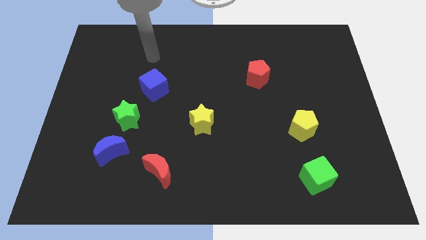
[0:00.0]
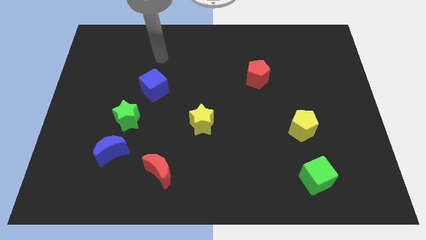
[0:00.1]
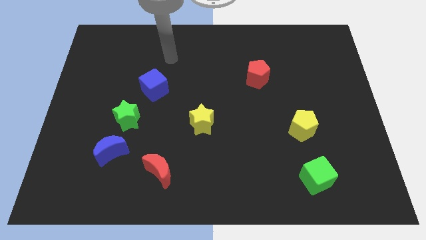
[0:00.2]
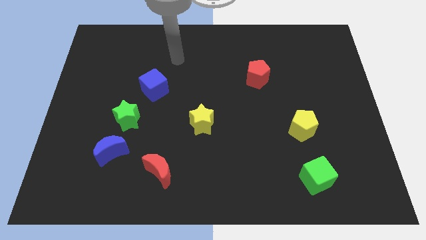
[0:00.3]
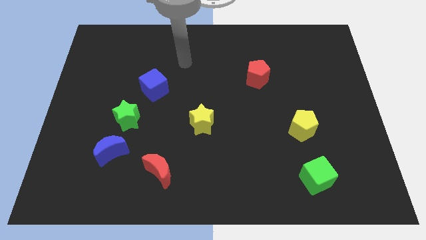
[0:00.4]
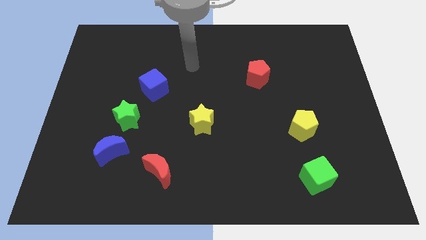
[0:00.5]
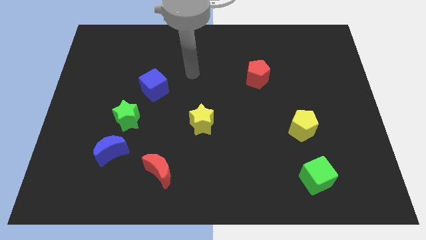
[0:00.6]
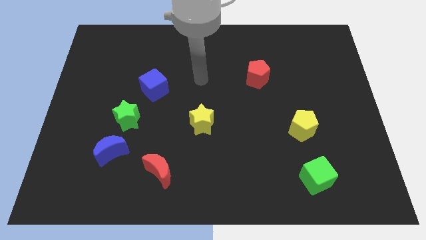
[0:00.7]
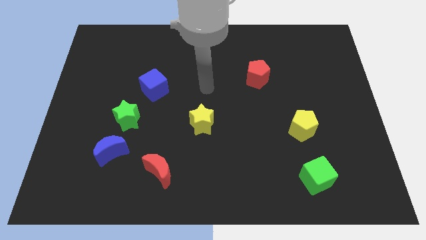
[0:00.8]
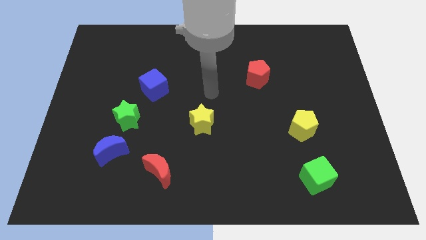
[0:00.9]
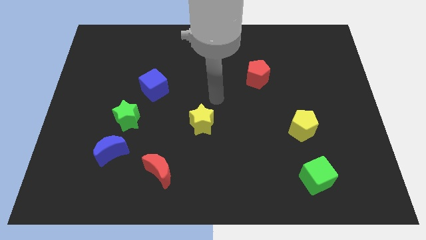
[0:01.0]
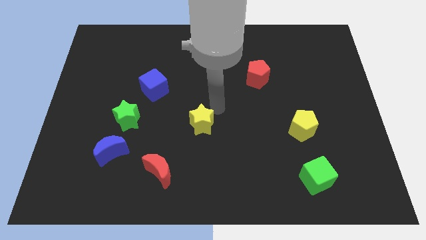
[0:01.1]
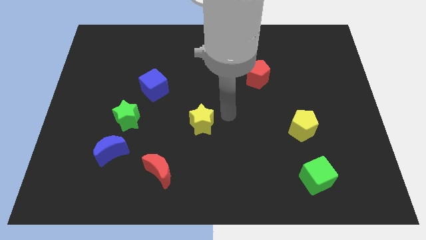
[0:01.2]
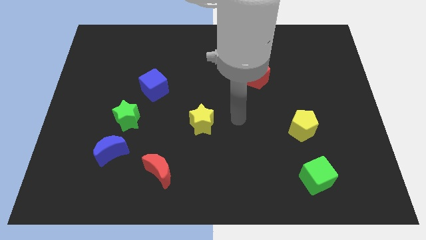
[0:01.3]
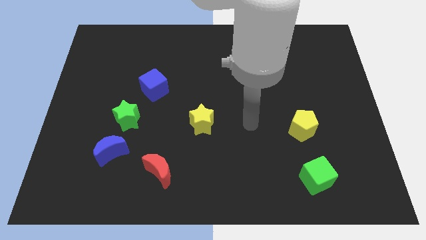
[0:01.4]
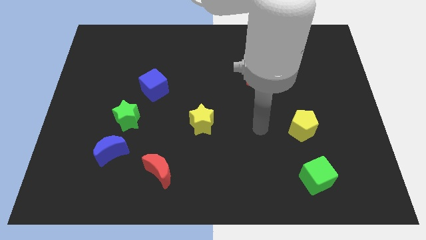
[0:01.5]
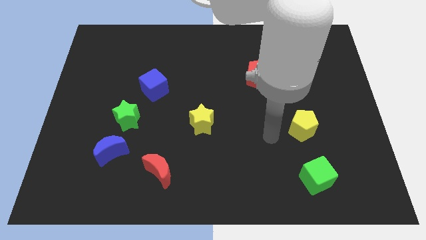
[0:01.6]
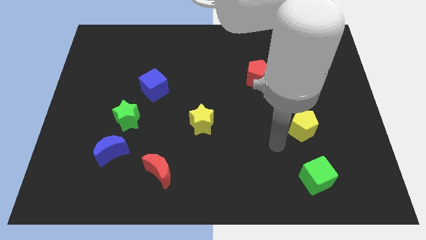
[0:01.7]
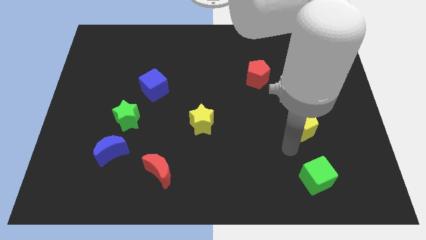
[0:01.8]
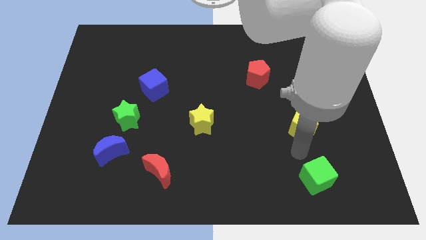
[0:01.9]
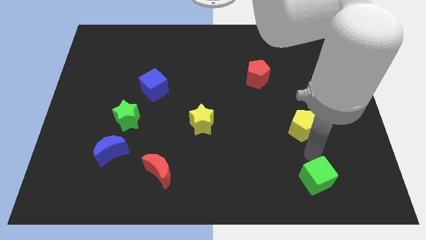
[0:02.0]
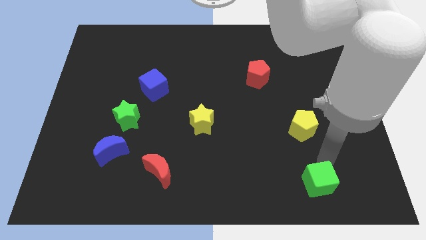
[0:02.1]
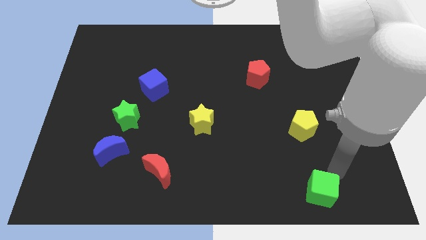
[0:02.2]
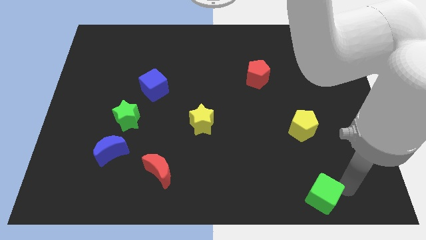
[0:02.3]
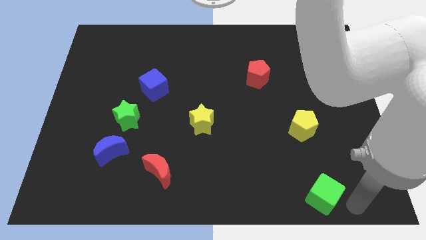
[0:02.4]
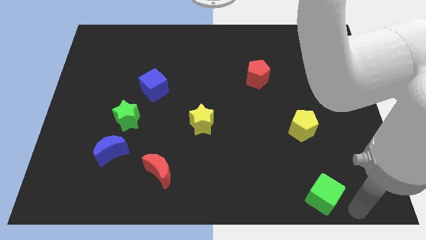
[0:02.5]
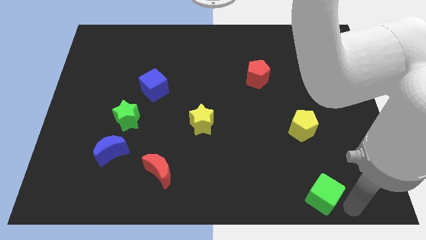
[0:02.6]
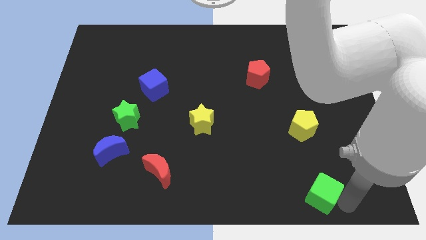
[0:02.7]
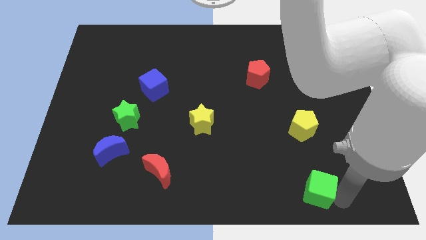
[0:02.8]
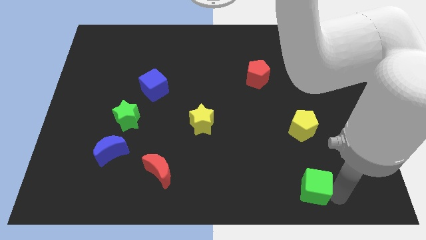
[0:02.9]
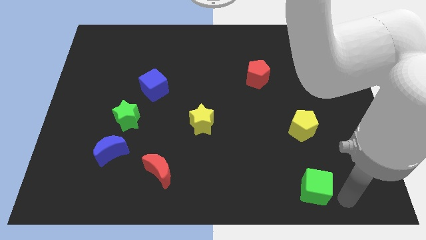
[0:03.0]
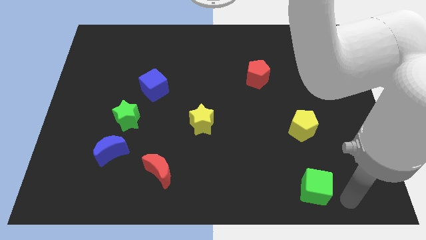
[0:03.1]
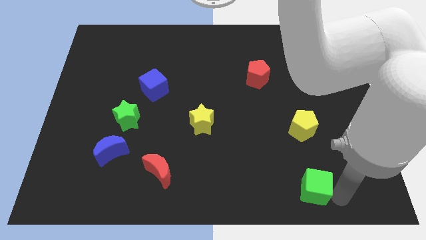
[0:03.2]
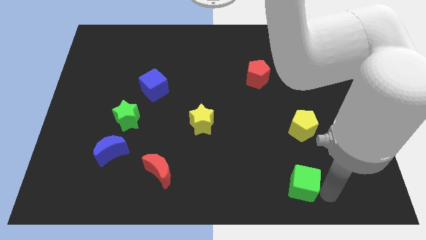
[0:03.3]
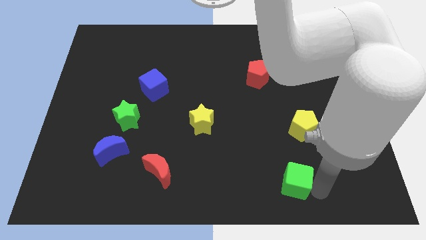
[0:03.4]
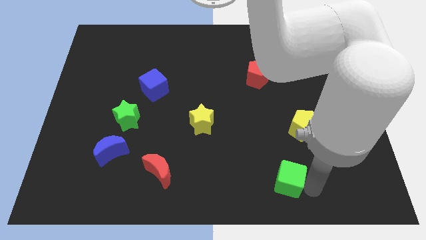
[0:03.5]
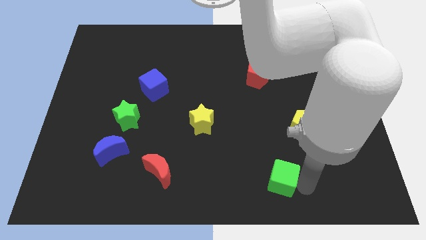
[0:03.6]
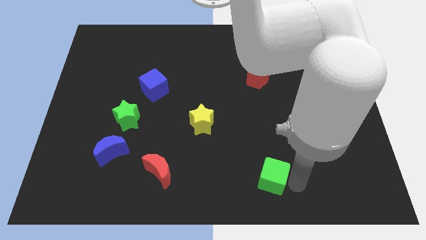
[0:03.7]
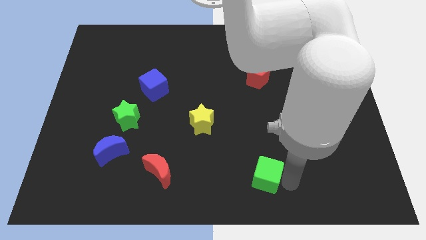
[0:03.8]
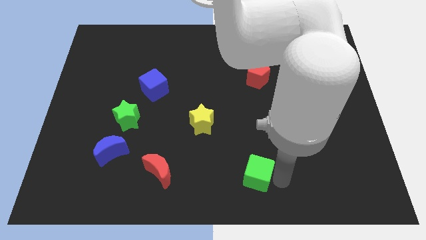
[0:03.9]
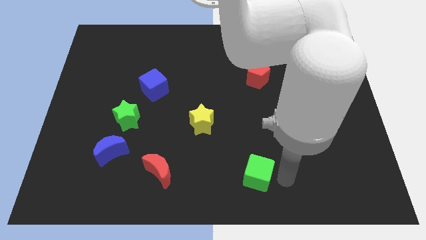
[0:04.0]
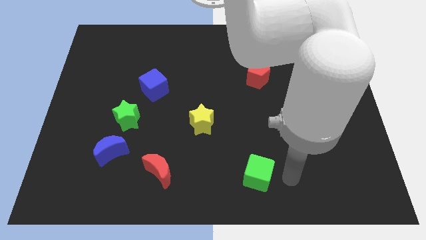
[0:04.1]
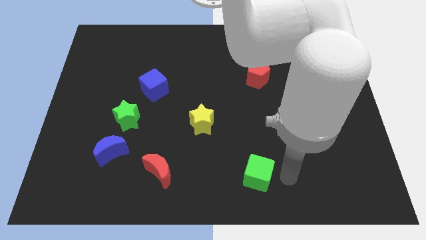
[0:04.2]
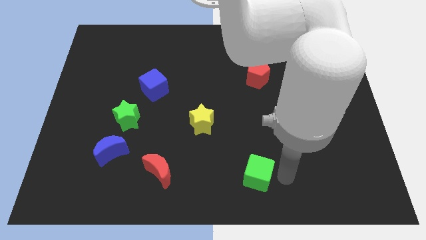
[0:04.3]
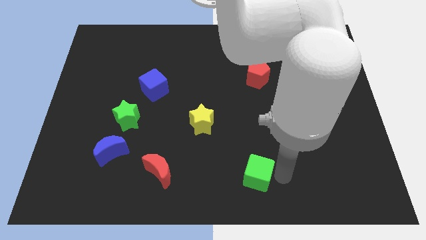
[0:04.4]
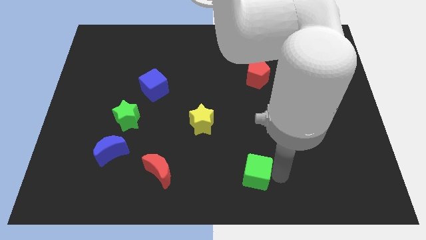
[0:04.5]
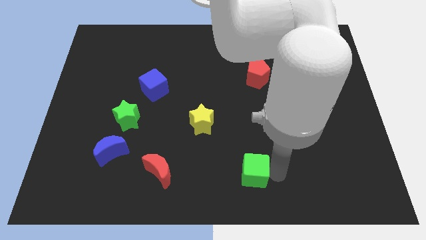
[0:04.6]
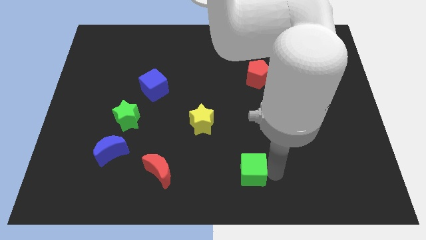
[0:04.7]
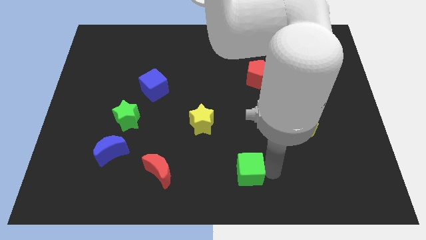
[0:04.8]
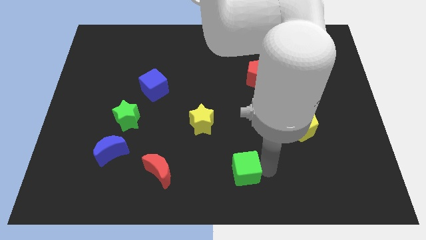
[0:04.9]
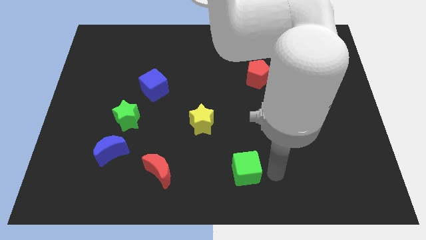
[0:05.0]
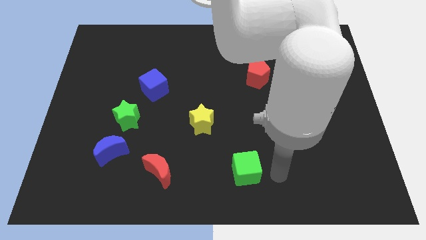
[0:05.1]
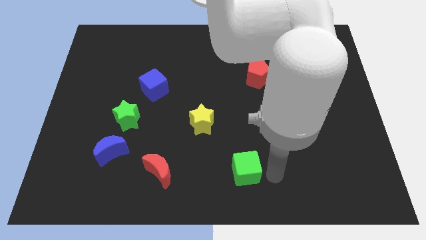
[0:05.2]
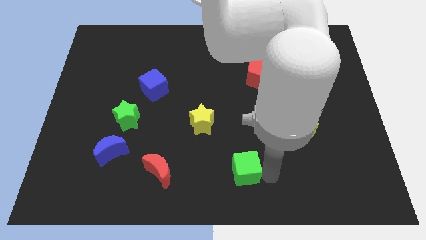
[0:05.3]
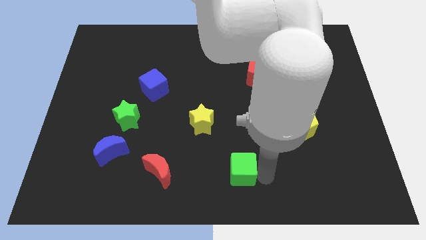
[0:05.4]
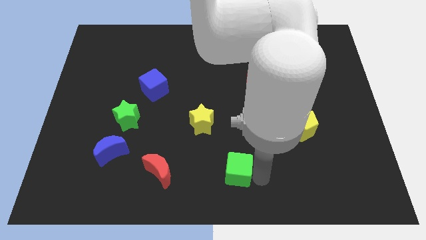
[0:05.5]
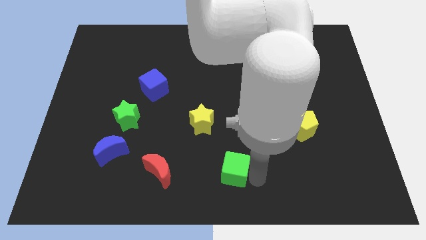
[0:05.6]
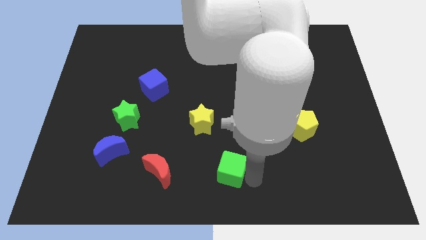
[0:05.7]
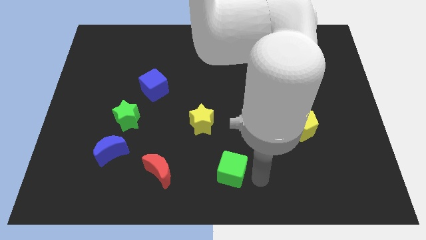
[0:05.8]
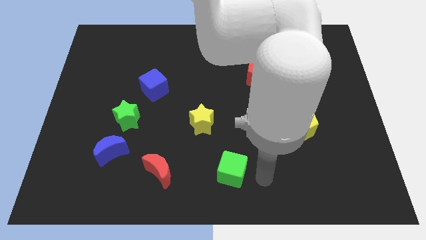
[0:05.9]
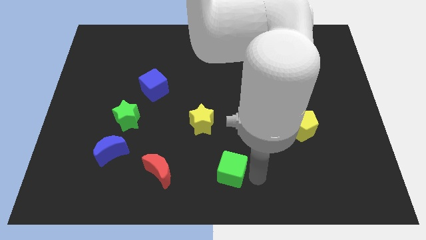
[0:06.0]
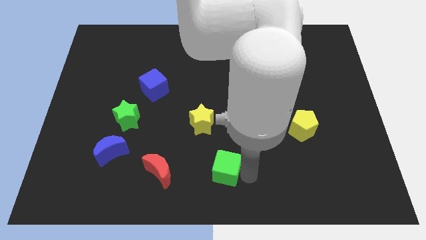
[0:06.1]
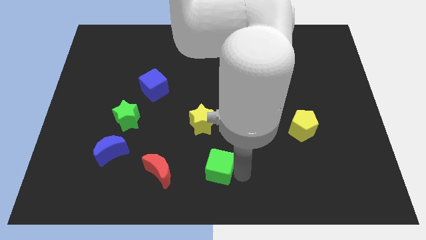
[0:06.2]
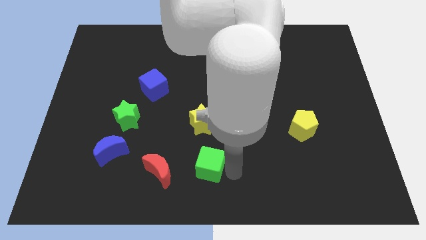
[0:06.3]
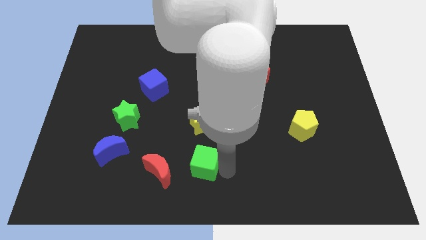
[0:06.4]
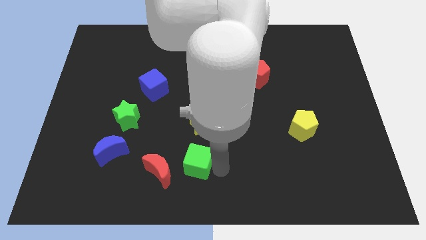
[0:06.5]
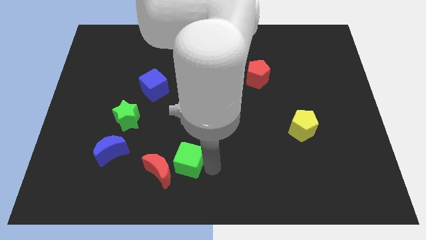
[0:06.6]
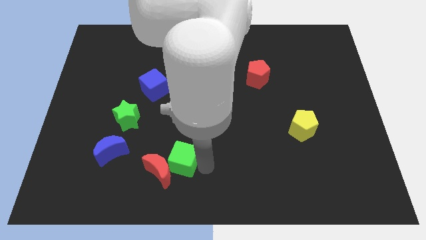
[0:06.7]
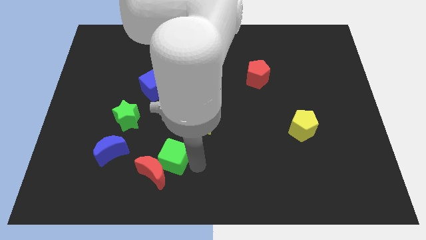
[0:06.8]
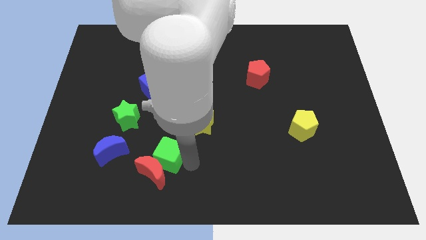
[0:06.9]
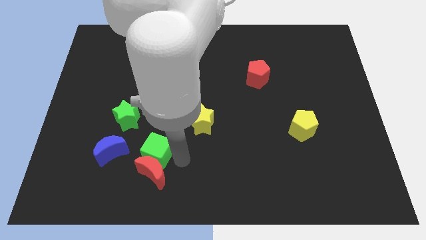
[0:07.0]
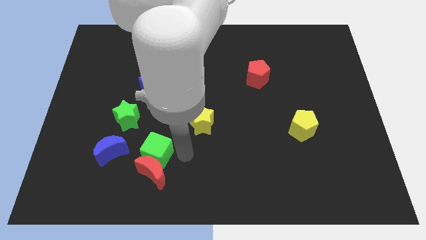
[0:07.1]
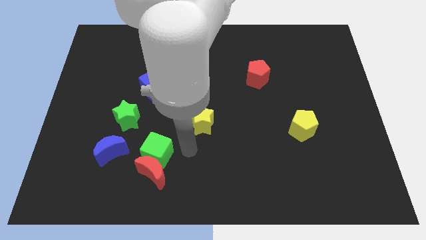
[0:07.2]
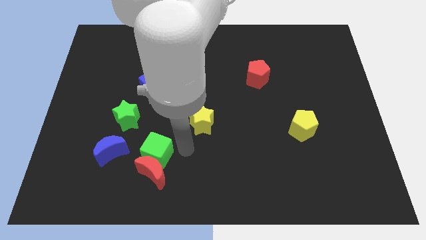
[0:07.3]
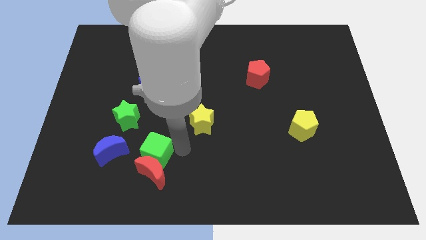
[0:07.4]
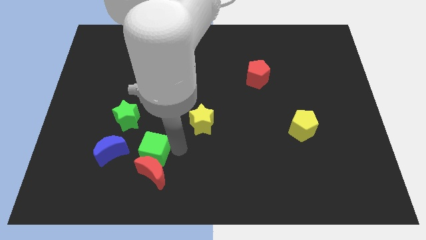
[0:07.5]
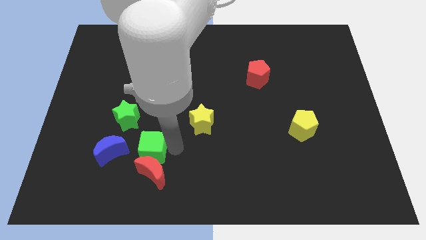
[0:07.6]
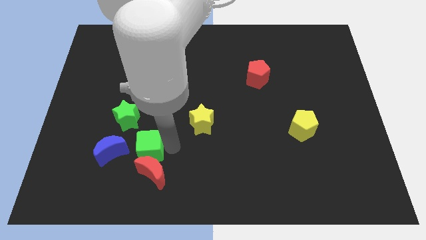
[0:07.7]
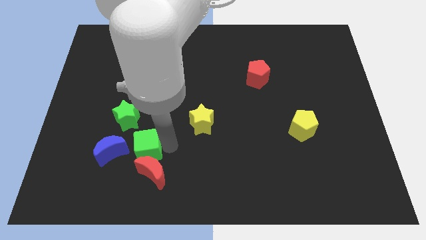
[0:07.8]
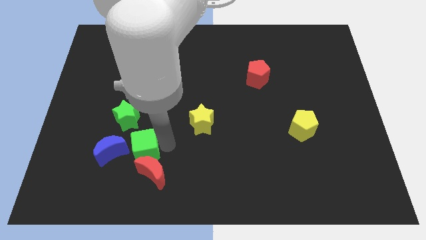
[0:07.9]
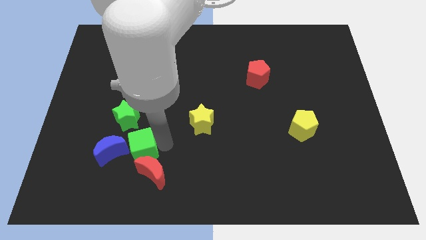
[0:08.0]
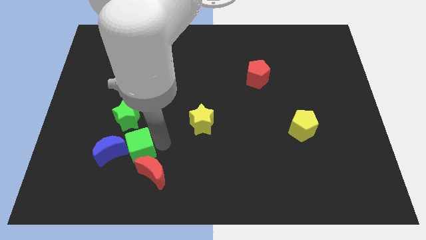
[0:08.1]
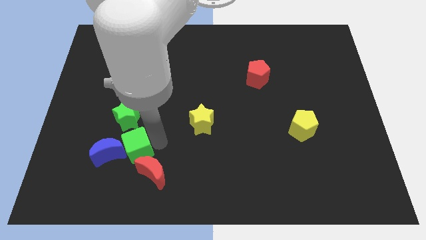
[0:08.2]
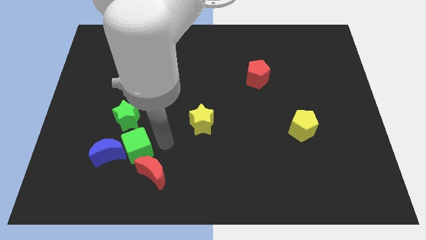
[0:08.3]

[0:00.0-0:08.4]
push the green cube close to the blue moon
